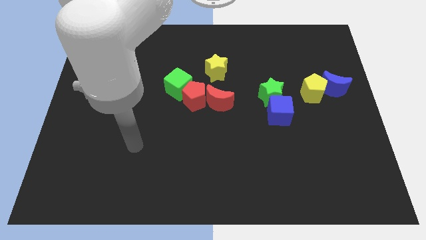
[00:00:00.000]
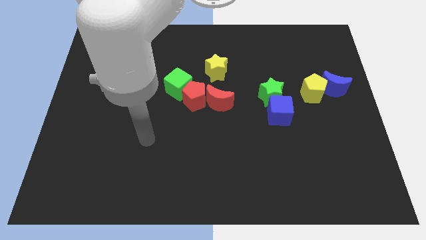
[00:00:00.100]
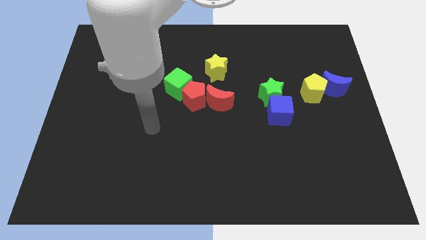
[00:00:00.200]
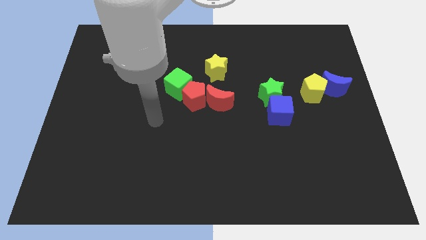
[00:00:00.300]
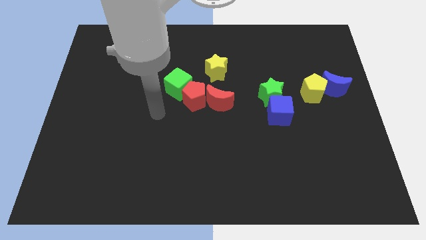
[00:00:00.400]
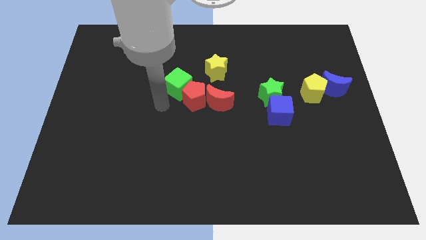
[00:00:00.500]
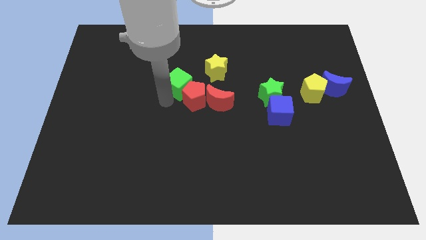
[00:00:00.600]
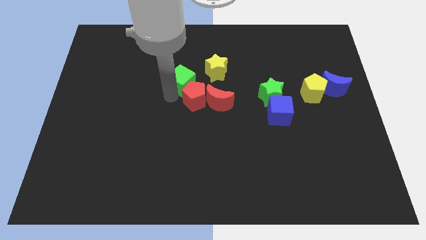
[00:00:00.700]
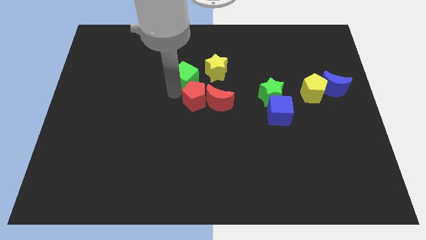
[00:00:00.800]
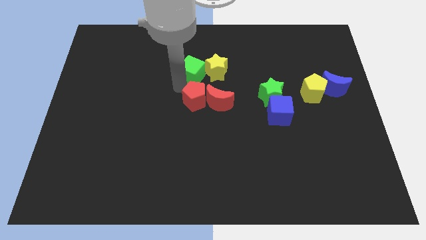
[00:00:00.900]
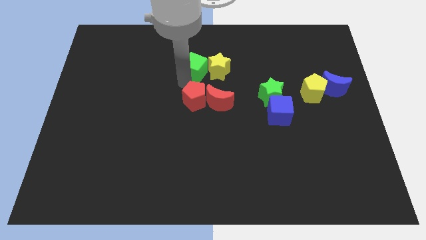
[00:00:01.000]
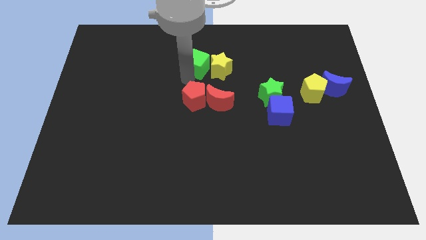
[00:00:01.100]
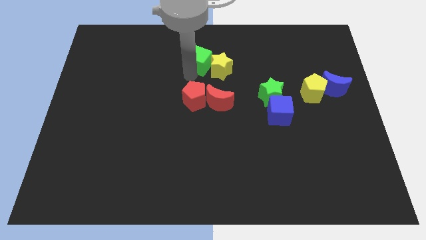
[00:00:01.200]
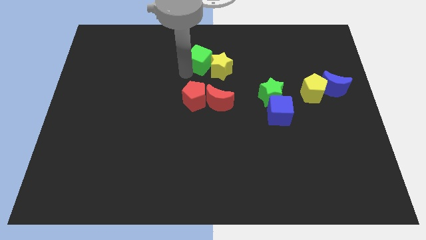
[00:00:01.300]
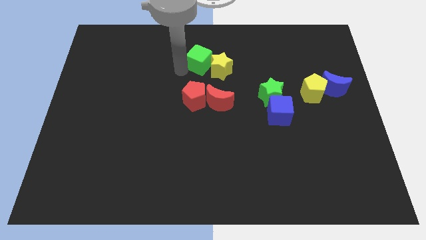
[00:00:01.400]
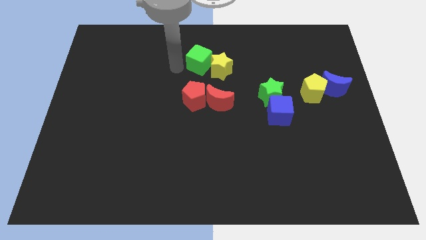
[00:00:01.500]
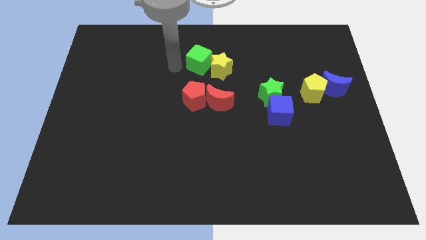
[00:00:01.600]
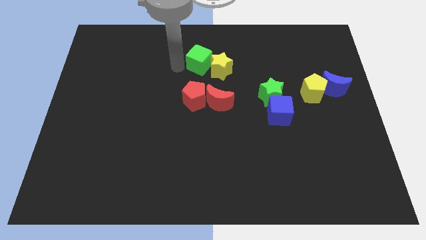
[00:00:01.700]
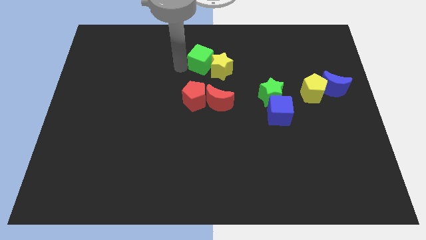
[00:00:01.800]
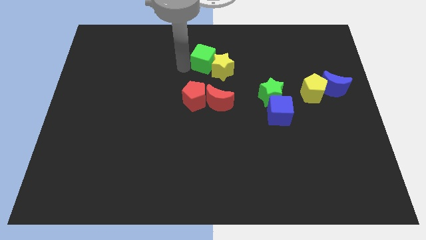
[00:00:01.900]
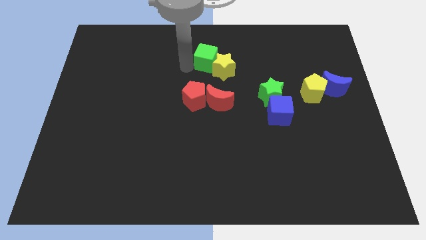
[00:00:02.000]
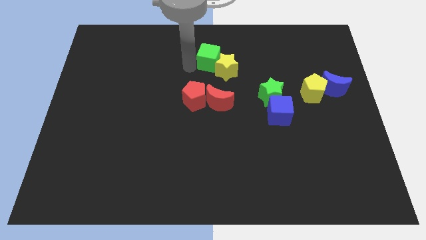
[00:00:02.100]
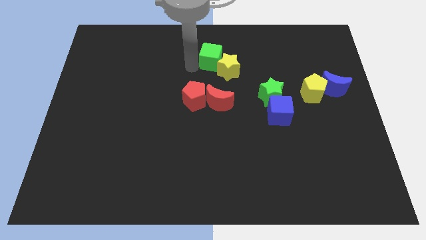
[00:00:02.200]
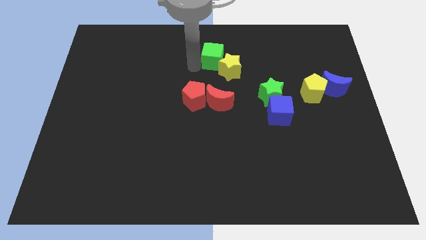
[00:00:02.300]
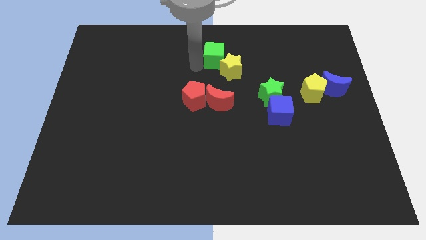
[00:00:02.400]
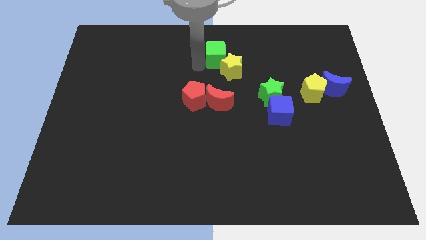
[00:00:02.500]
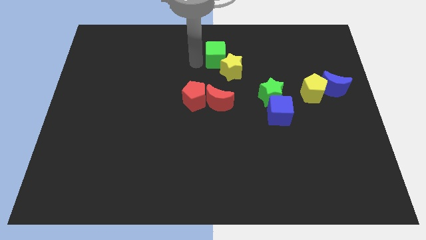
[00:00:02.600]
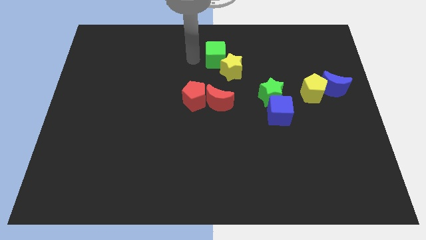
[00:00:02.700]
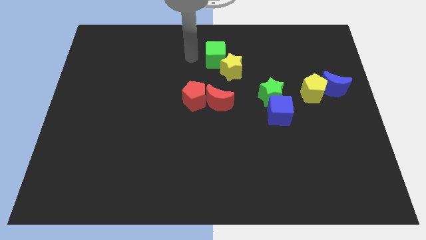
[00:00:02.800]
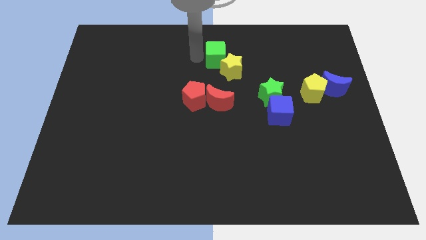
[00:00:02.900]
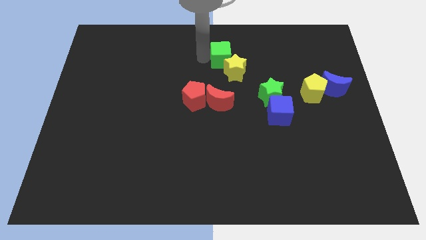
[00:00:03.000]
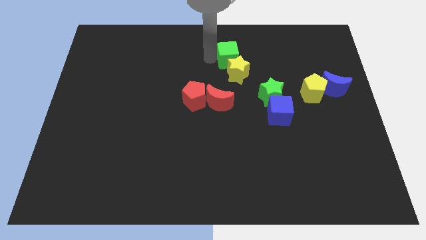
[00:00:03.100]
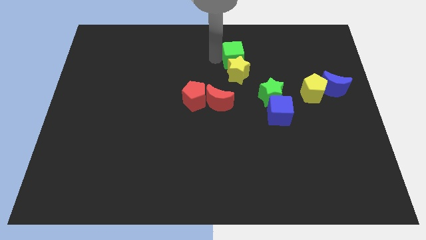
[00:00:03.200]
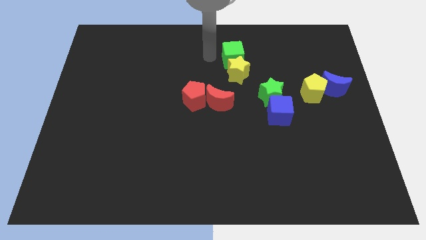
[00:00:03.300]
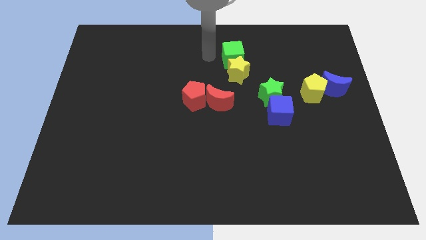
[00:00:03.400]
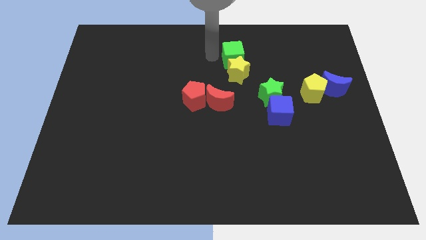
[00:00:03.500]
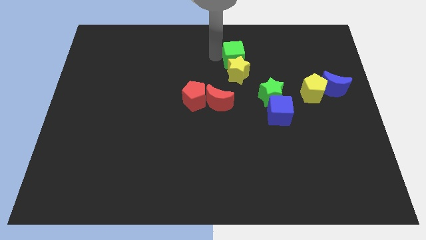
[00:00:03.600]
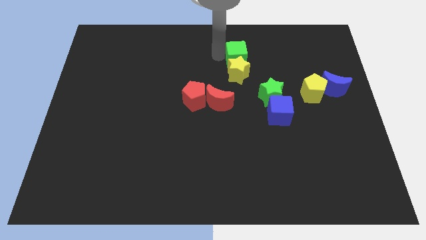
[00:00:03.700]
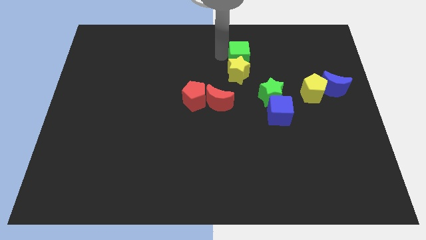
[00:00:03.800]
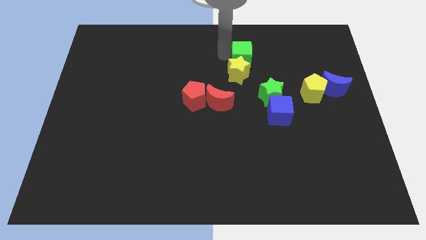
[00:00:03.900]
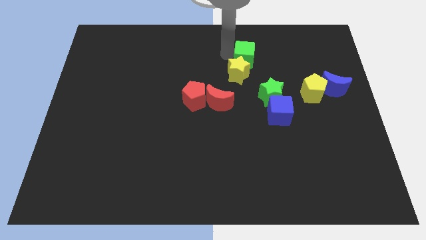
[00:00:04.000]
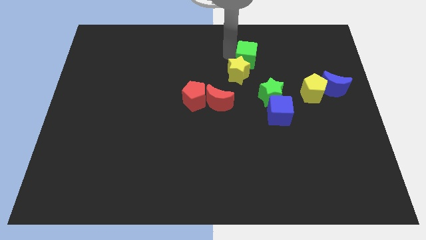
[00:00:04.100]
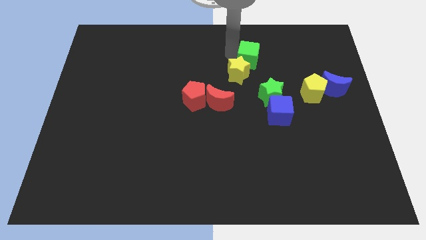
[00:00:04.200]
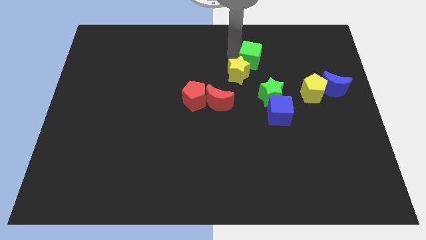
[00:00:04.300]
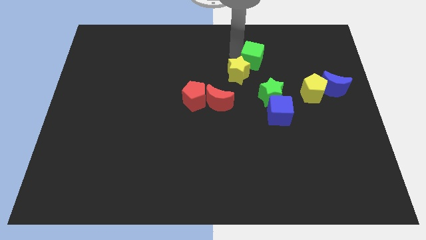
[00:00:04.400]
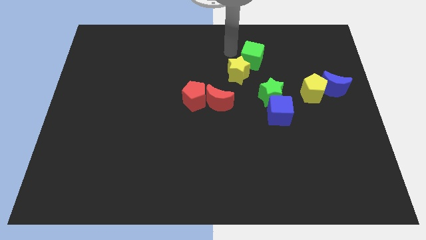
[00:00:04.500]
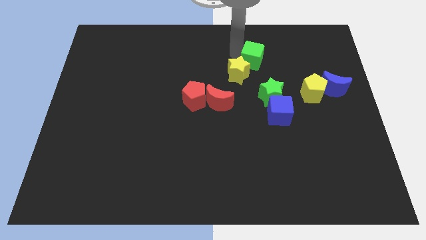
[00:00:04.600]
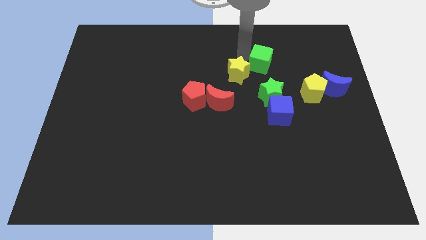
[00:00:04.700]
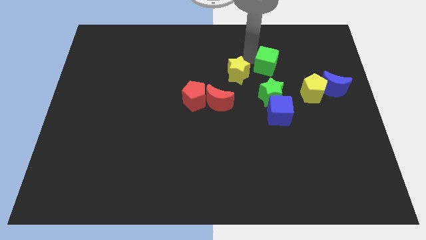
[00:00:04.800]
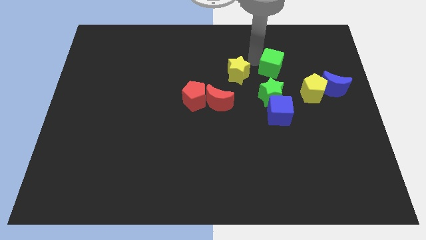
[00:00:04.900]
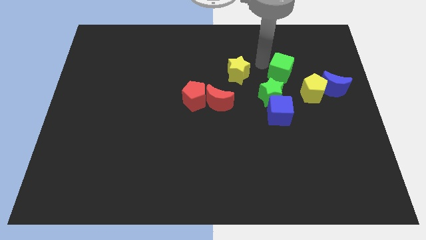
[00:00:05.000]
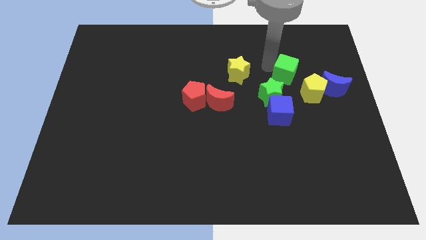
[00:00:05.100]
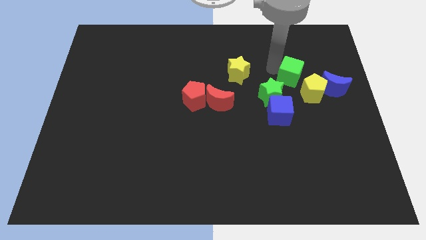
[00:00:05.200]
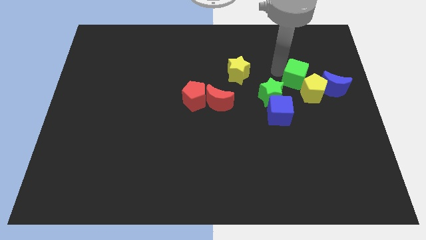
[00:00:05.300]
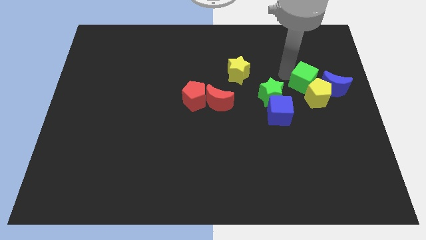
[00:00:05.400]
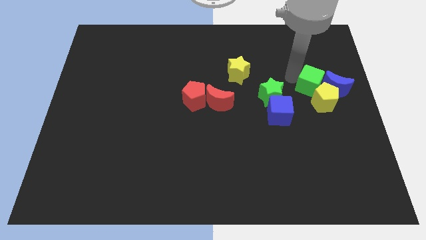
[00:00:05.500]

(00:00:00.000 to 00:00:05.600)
put the green cube towards the blue moon

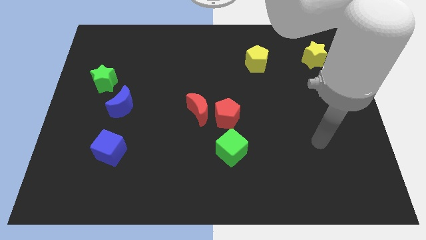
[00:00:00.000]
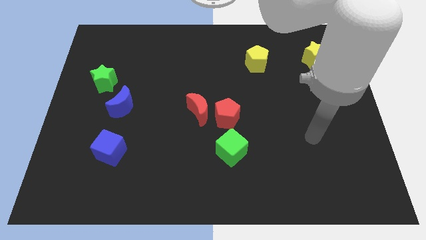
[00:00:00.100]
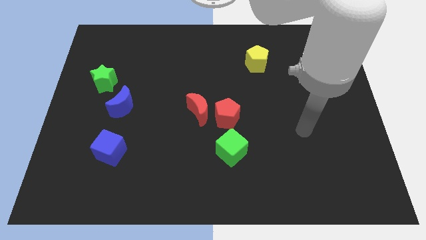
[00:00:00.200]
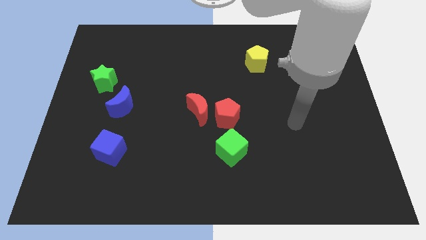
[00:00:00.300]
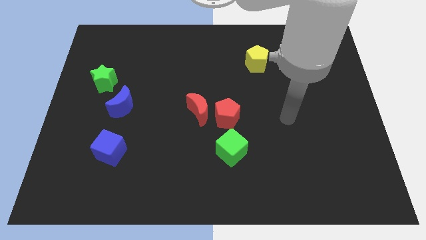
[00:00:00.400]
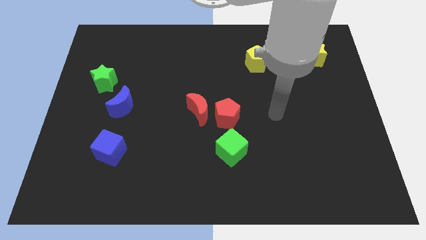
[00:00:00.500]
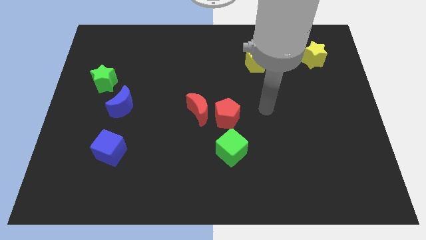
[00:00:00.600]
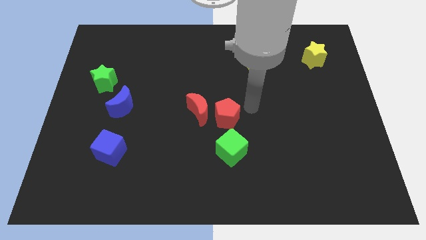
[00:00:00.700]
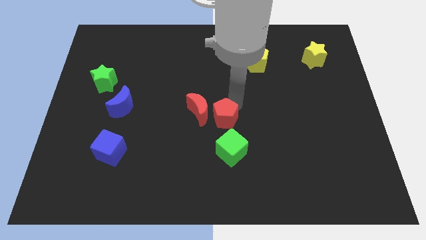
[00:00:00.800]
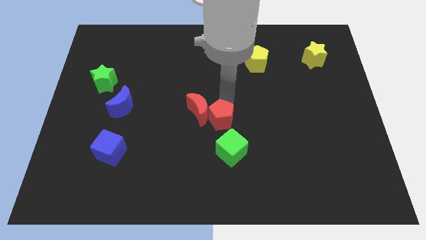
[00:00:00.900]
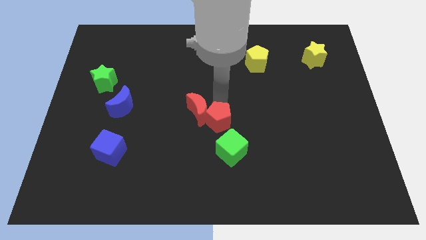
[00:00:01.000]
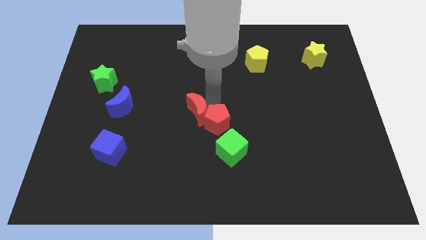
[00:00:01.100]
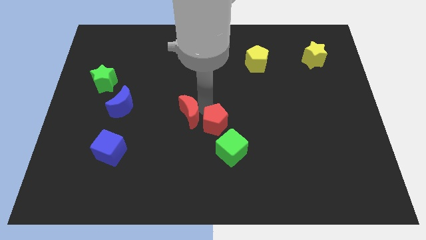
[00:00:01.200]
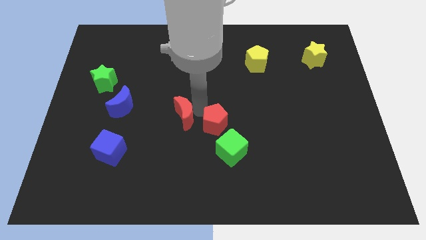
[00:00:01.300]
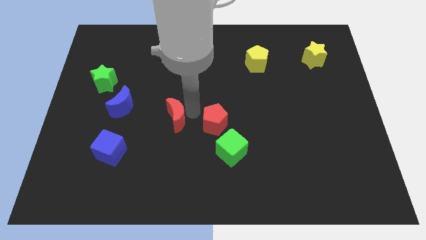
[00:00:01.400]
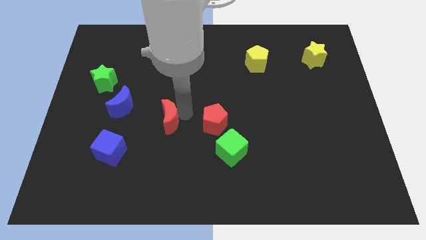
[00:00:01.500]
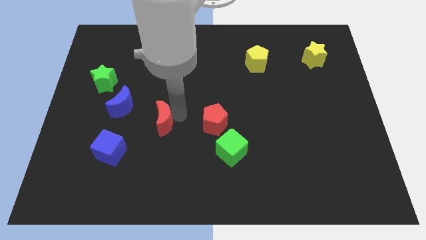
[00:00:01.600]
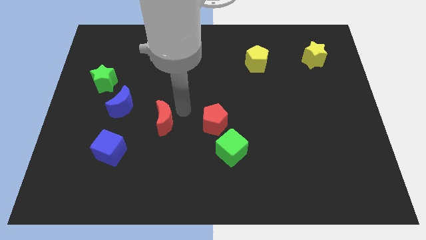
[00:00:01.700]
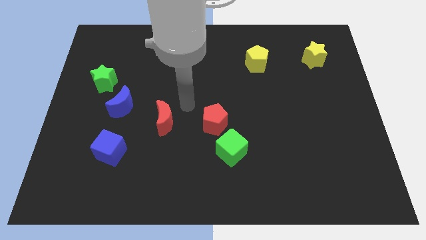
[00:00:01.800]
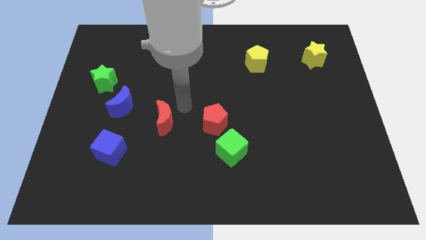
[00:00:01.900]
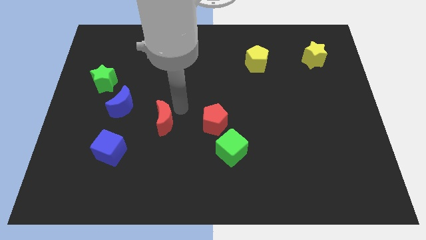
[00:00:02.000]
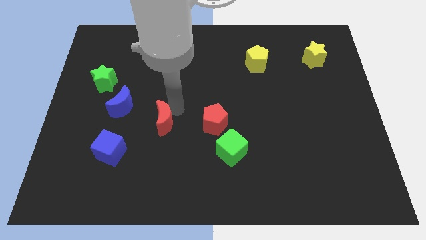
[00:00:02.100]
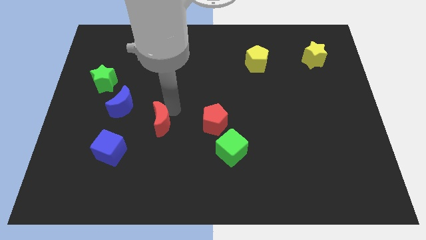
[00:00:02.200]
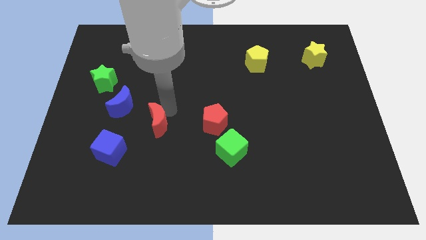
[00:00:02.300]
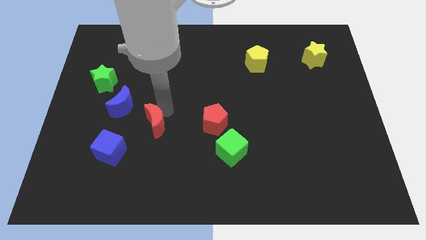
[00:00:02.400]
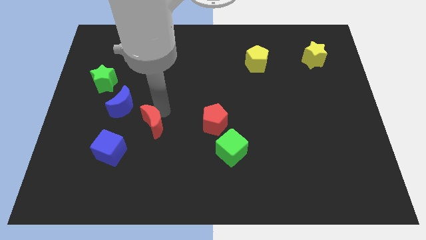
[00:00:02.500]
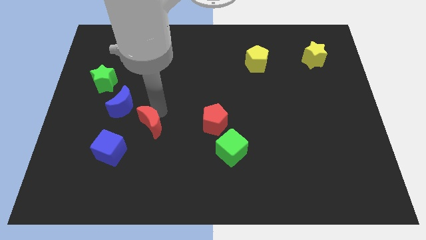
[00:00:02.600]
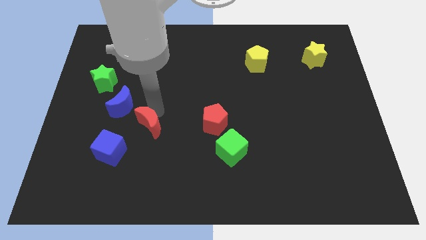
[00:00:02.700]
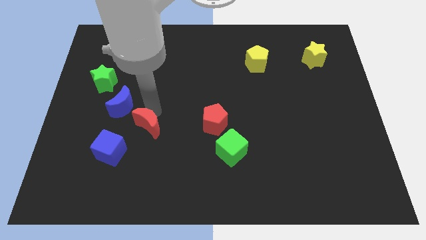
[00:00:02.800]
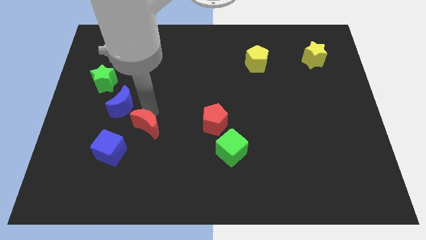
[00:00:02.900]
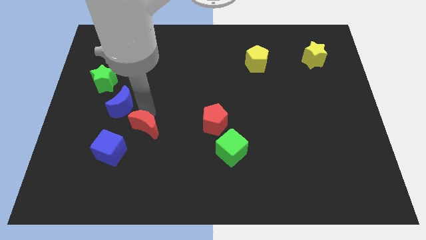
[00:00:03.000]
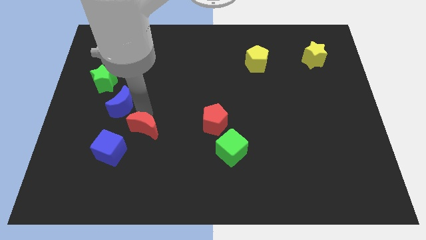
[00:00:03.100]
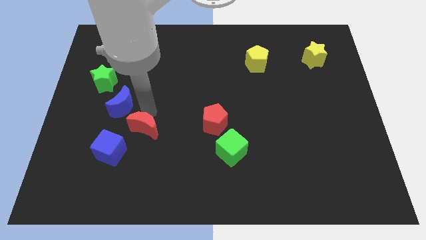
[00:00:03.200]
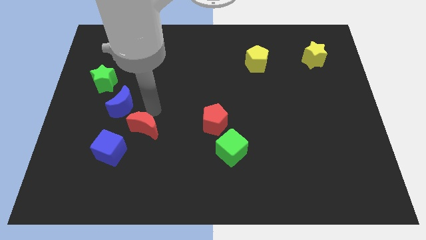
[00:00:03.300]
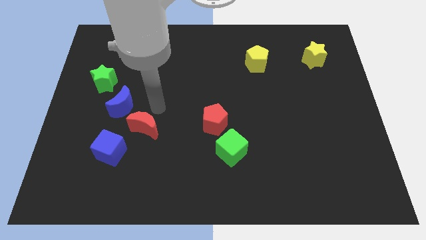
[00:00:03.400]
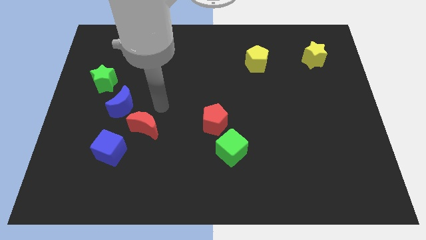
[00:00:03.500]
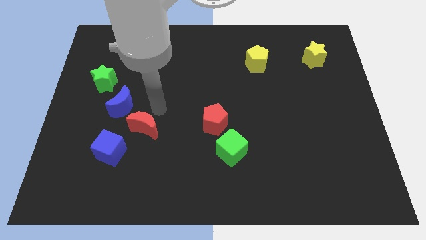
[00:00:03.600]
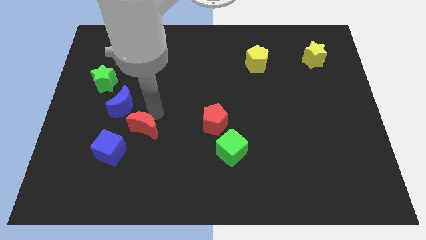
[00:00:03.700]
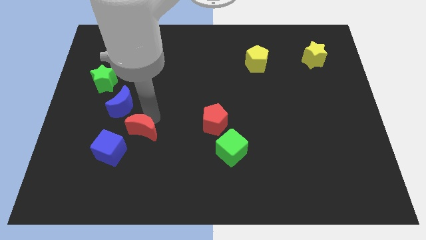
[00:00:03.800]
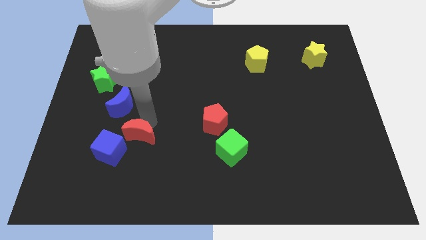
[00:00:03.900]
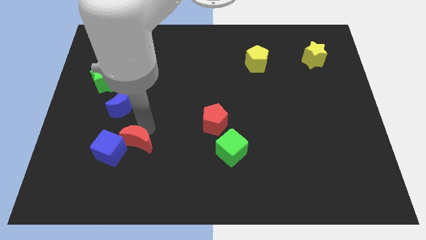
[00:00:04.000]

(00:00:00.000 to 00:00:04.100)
push the red moon next to the blue cube
